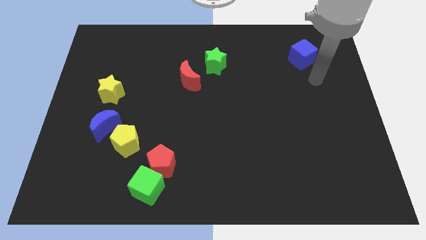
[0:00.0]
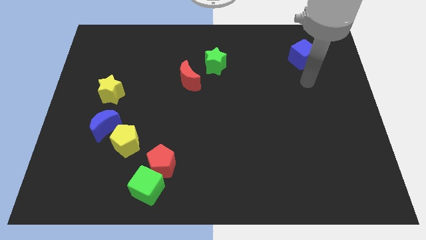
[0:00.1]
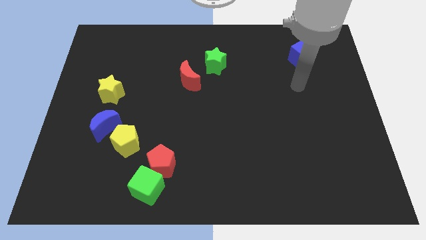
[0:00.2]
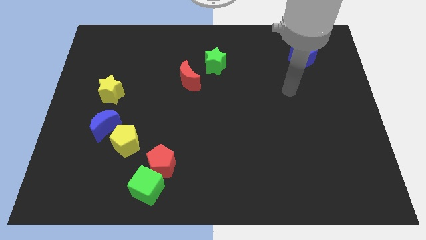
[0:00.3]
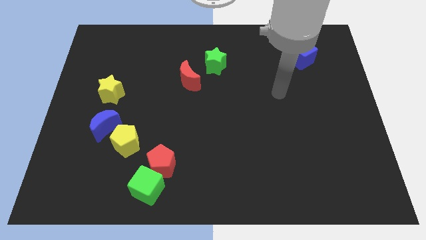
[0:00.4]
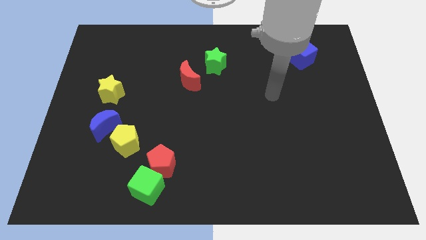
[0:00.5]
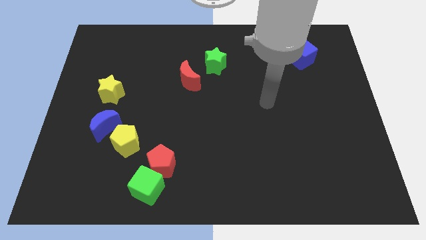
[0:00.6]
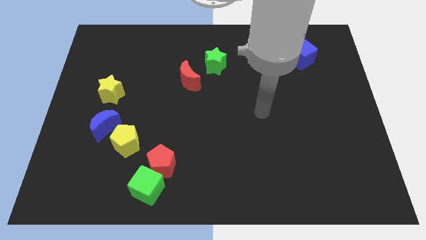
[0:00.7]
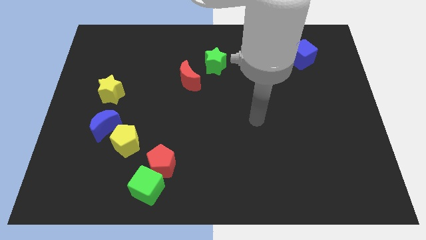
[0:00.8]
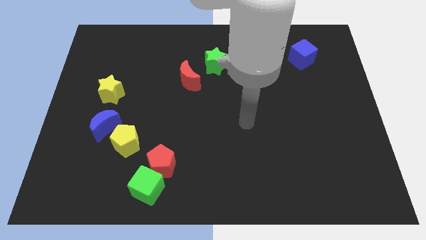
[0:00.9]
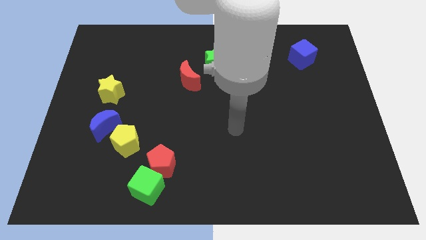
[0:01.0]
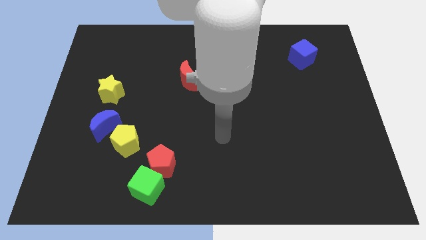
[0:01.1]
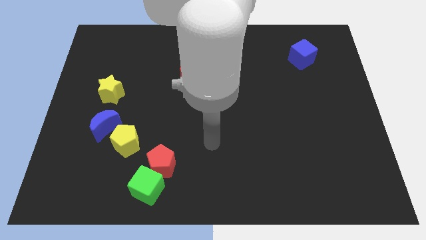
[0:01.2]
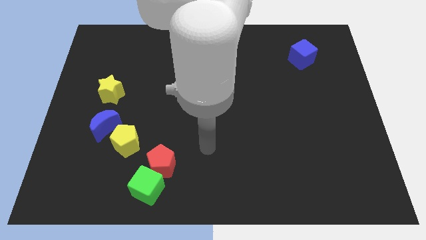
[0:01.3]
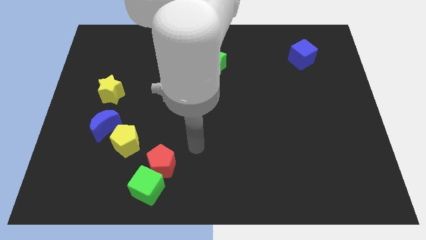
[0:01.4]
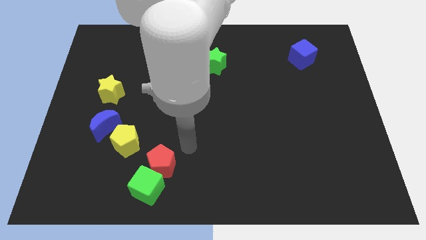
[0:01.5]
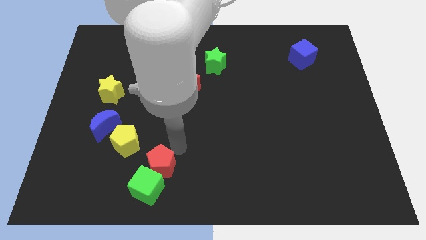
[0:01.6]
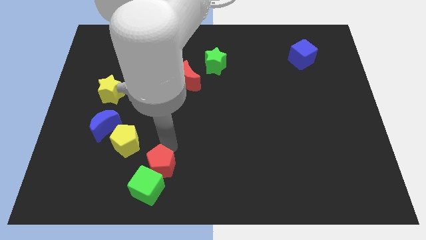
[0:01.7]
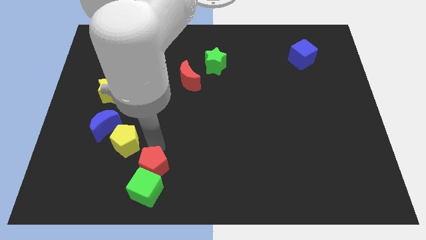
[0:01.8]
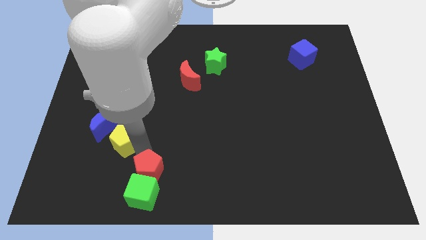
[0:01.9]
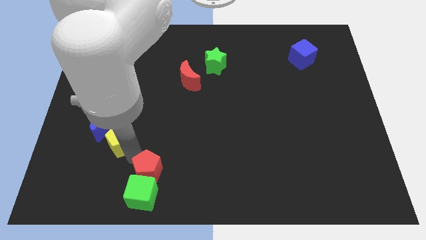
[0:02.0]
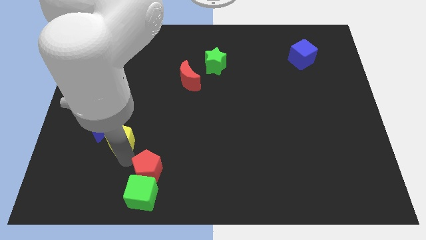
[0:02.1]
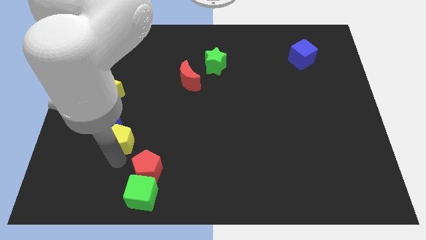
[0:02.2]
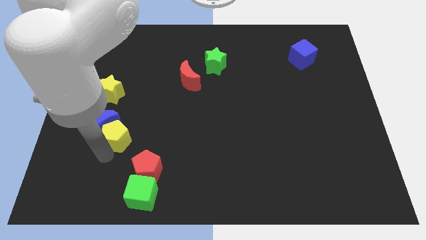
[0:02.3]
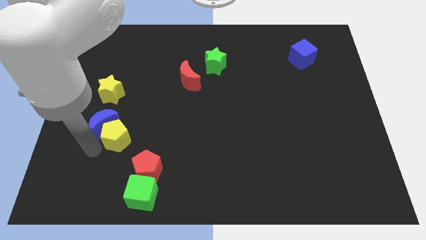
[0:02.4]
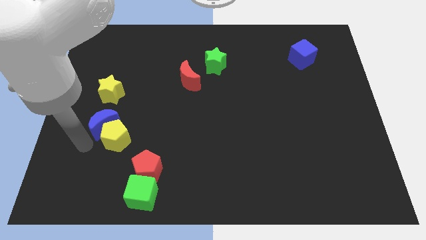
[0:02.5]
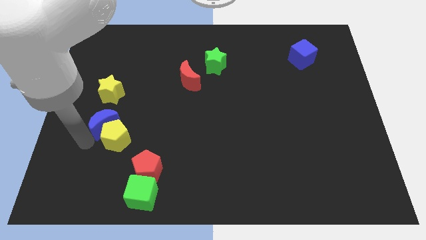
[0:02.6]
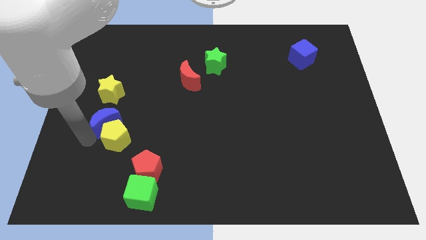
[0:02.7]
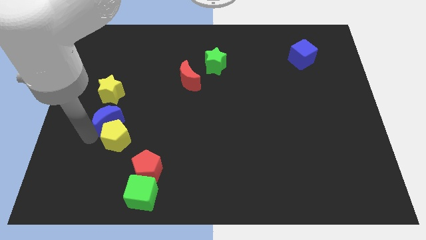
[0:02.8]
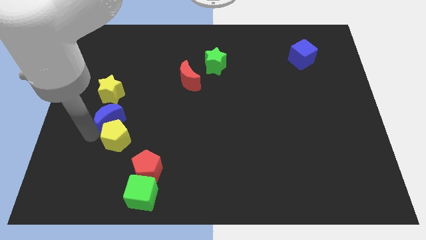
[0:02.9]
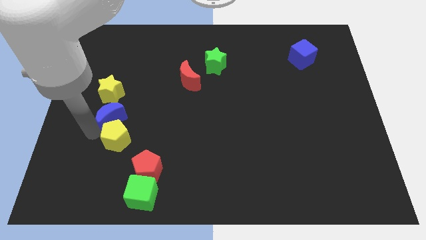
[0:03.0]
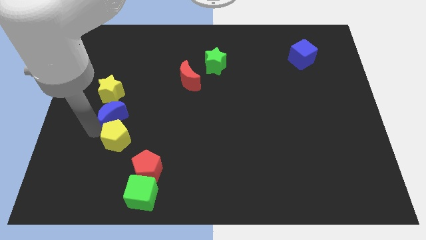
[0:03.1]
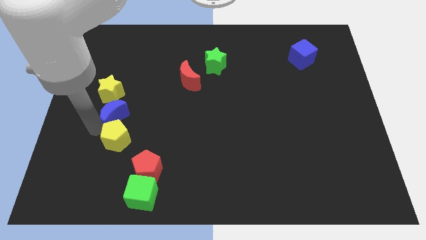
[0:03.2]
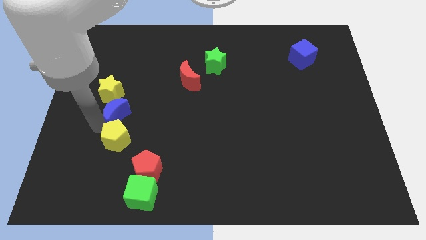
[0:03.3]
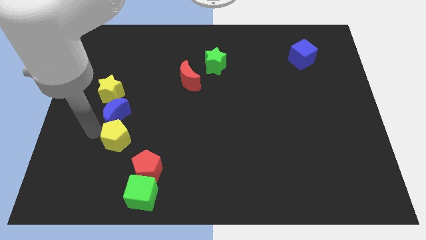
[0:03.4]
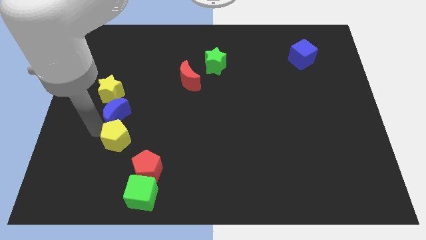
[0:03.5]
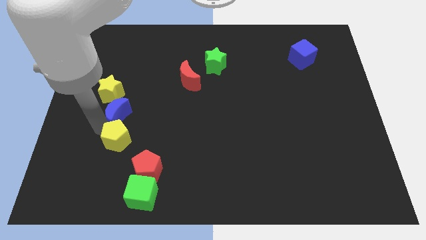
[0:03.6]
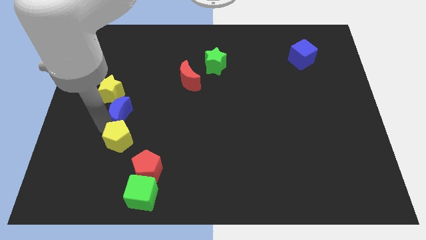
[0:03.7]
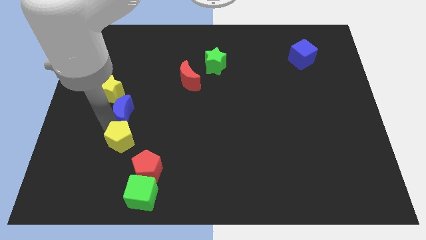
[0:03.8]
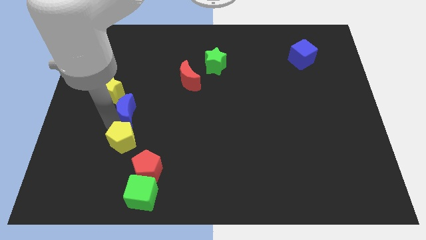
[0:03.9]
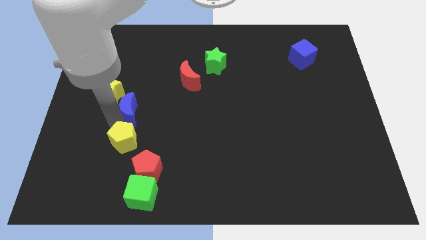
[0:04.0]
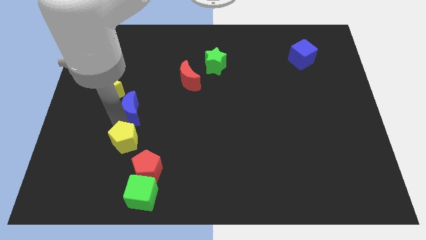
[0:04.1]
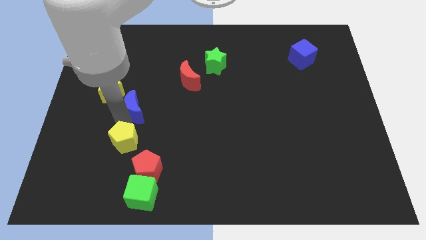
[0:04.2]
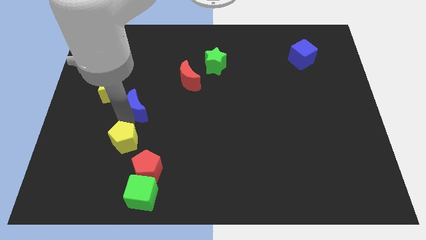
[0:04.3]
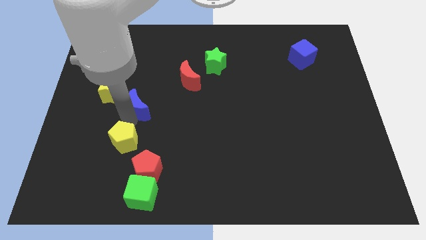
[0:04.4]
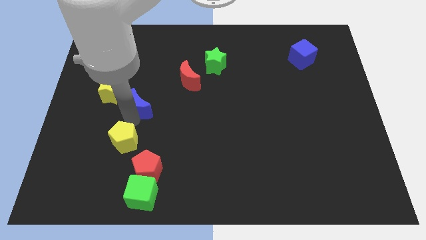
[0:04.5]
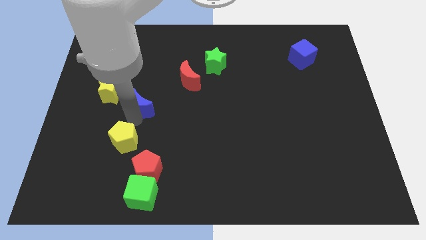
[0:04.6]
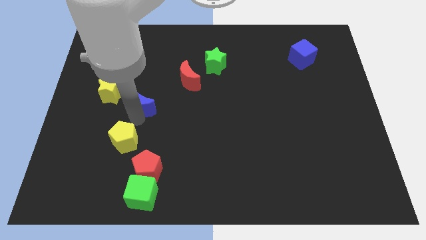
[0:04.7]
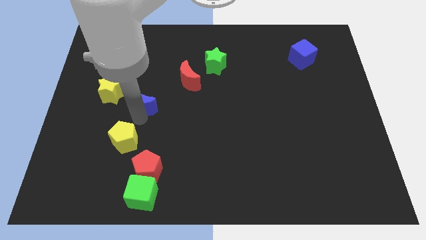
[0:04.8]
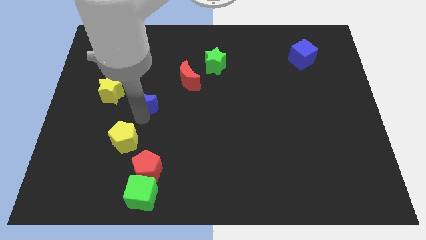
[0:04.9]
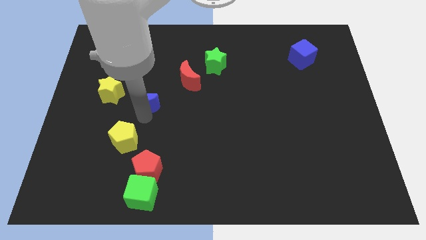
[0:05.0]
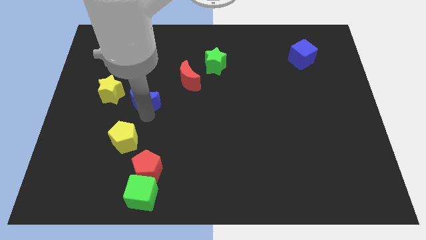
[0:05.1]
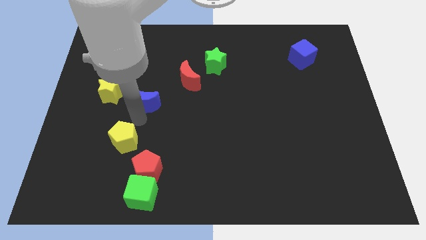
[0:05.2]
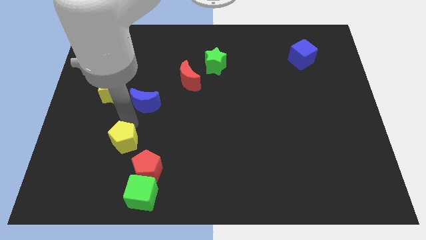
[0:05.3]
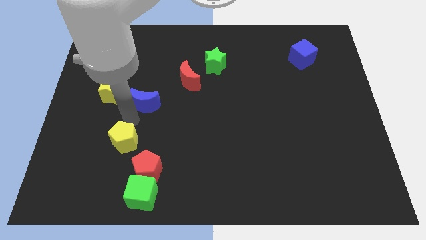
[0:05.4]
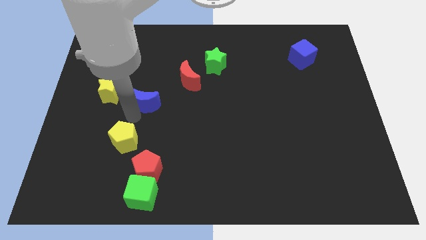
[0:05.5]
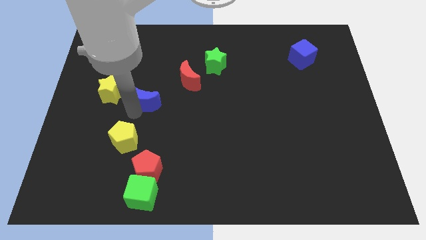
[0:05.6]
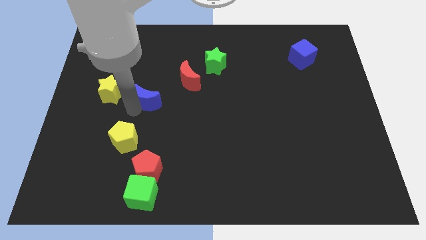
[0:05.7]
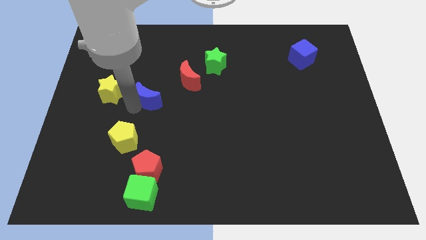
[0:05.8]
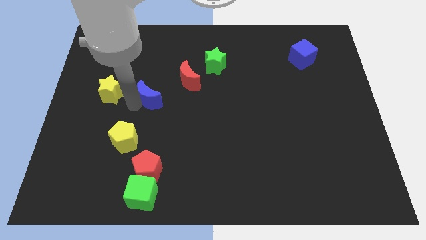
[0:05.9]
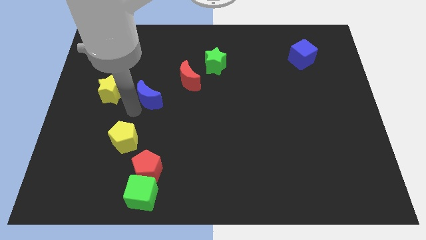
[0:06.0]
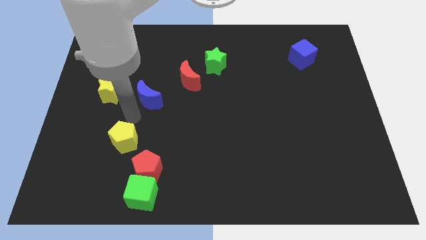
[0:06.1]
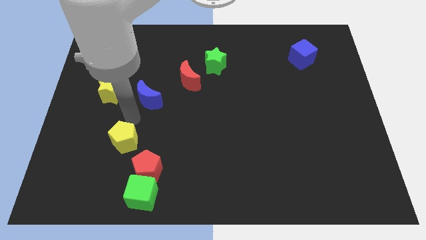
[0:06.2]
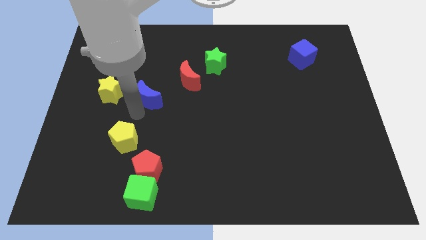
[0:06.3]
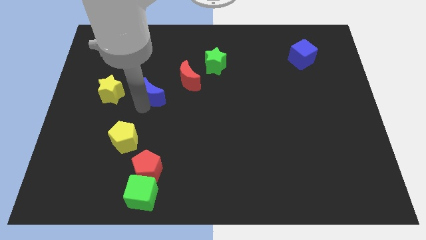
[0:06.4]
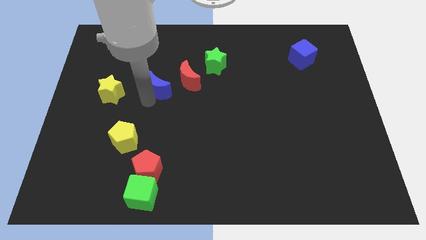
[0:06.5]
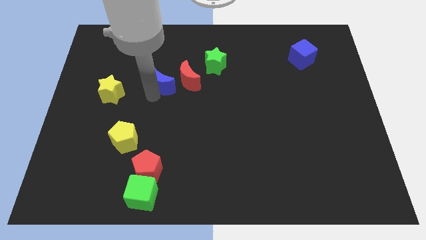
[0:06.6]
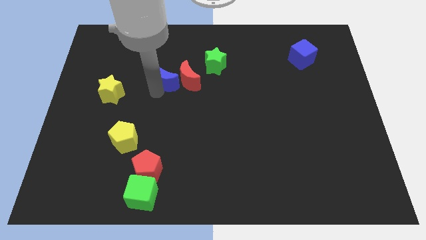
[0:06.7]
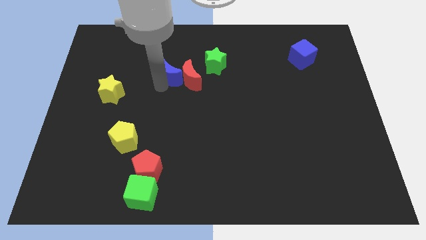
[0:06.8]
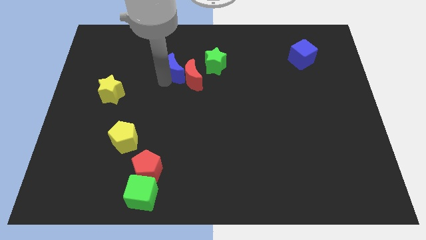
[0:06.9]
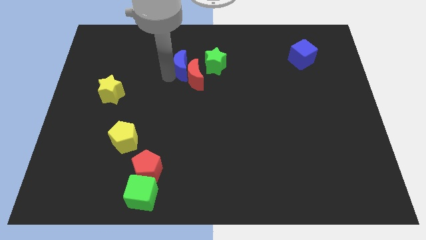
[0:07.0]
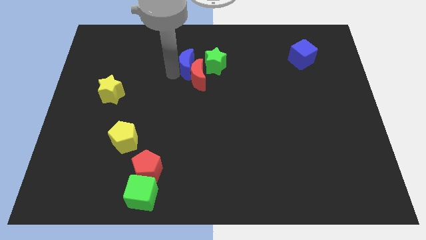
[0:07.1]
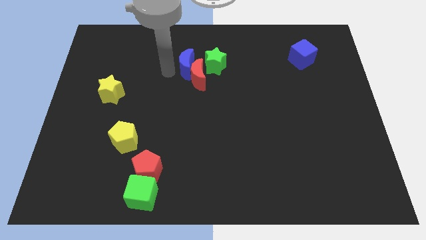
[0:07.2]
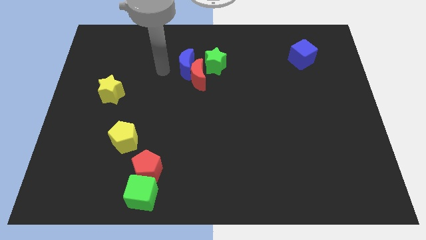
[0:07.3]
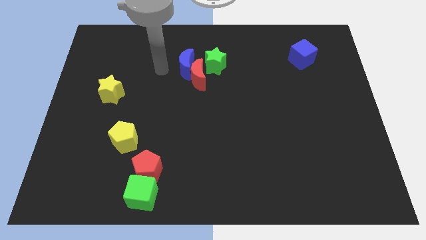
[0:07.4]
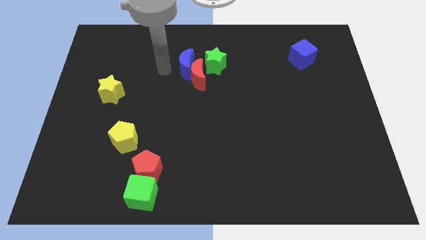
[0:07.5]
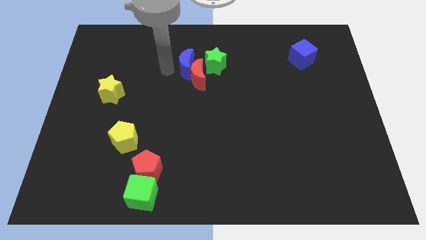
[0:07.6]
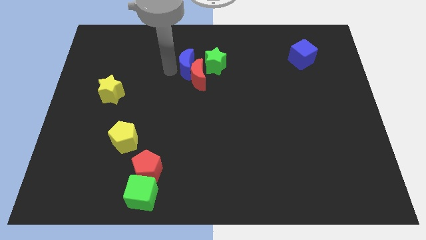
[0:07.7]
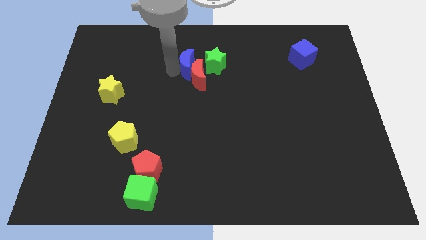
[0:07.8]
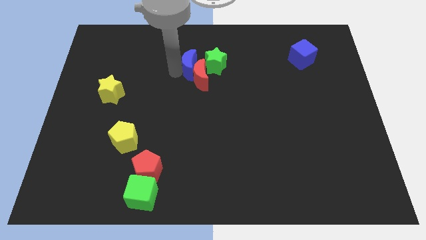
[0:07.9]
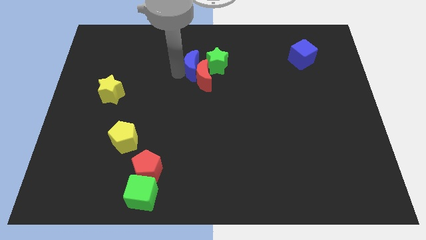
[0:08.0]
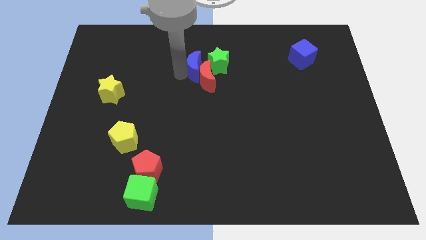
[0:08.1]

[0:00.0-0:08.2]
push the blue moon close to the green star
